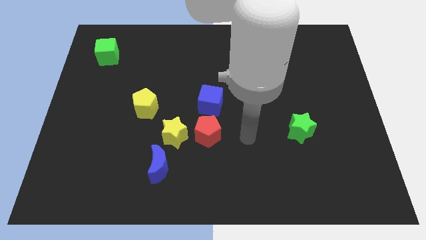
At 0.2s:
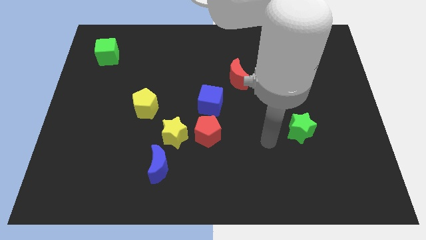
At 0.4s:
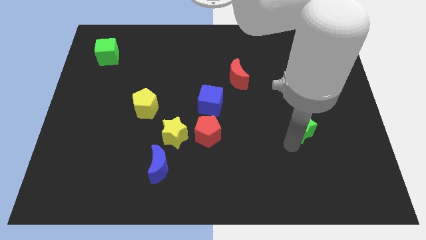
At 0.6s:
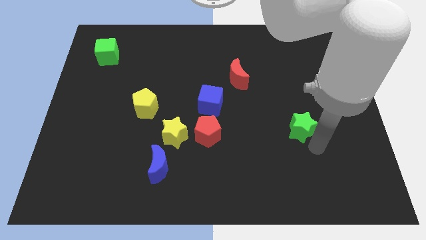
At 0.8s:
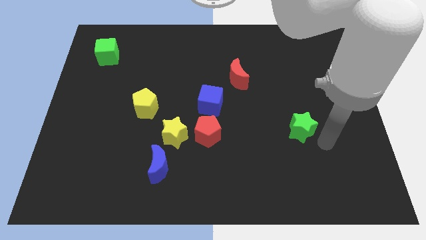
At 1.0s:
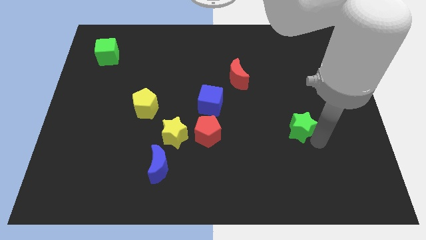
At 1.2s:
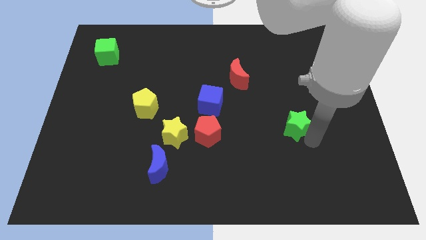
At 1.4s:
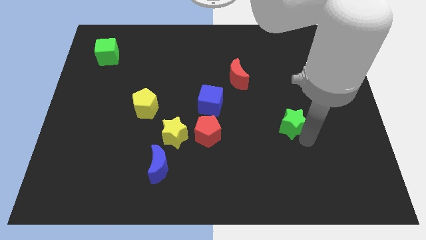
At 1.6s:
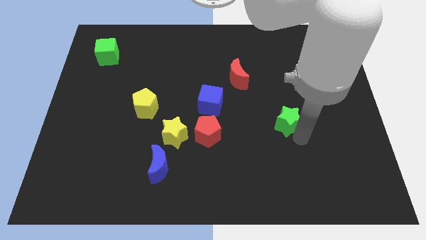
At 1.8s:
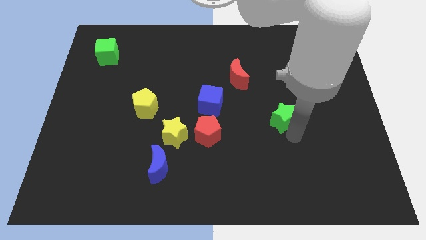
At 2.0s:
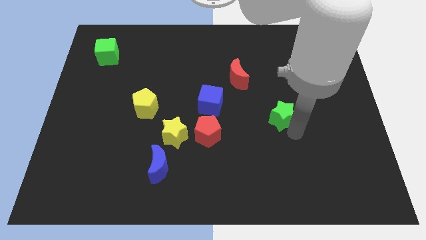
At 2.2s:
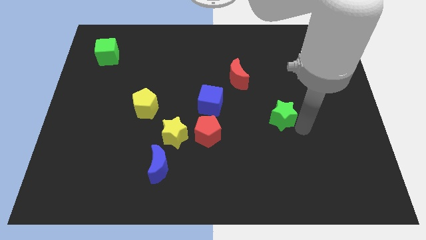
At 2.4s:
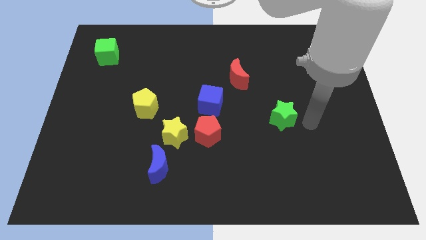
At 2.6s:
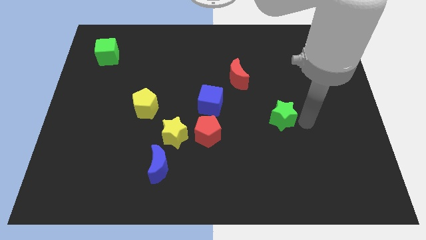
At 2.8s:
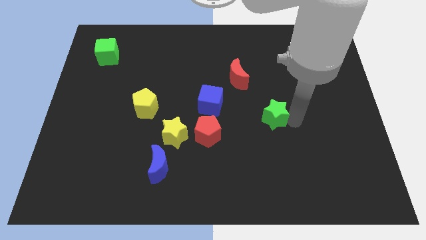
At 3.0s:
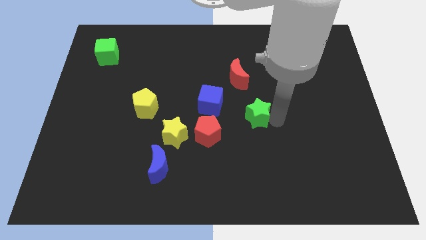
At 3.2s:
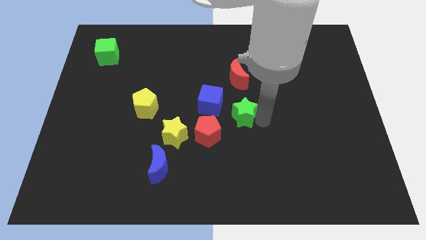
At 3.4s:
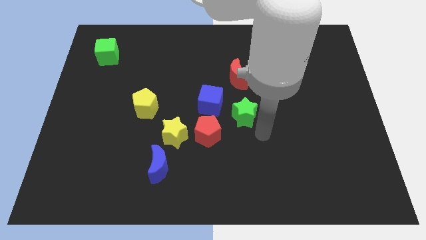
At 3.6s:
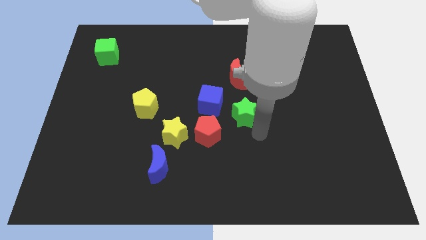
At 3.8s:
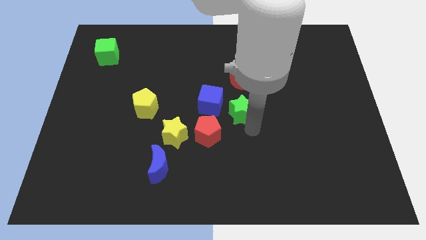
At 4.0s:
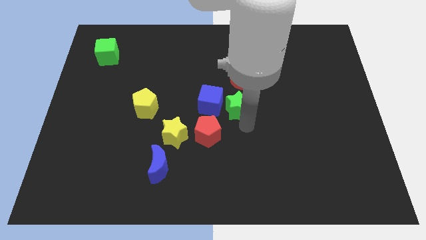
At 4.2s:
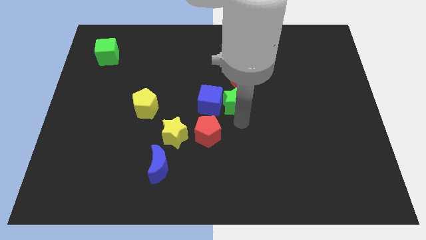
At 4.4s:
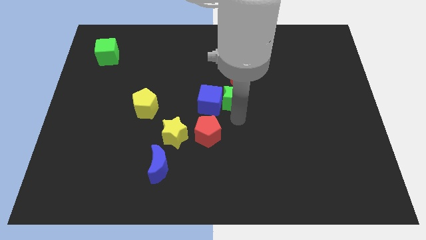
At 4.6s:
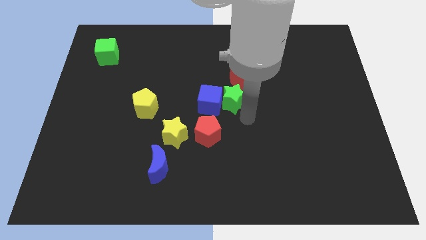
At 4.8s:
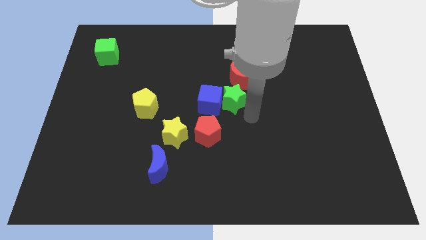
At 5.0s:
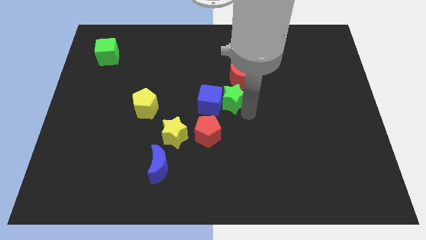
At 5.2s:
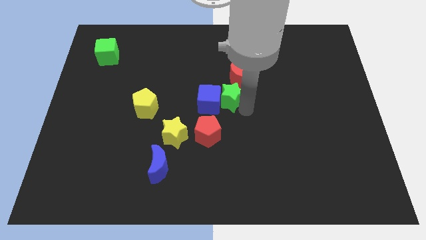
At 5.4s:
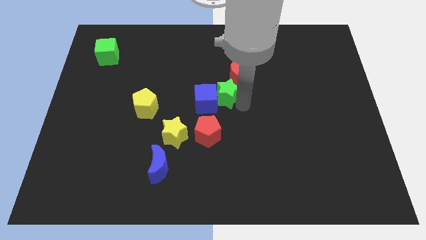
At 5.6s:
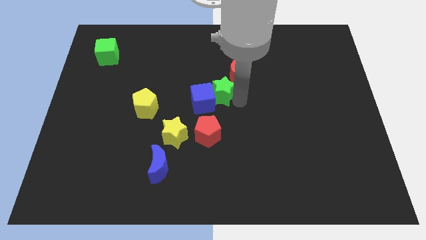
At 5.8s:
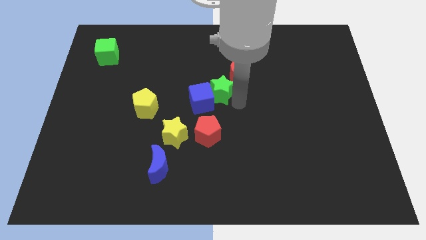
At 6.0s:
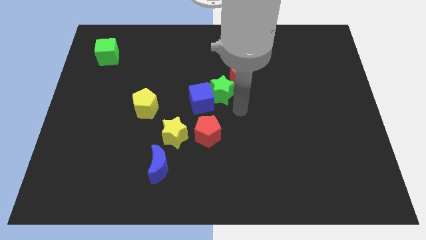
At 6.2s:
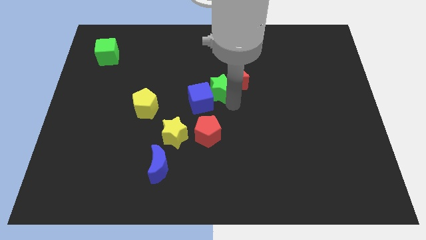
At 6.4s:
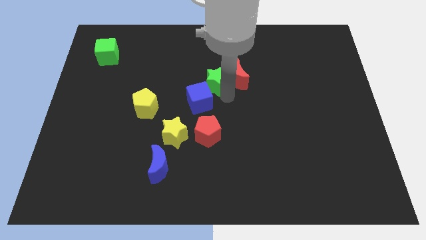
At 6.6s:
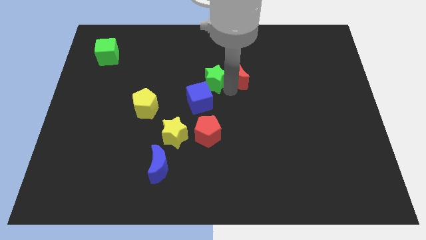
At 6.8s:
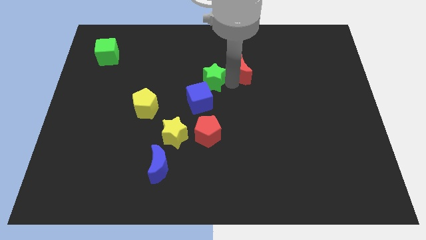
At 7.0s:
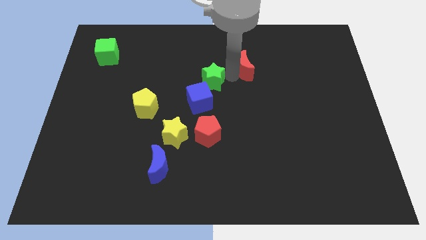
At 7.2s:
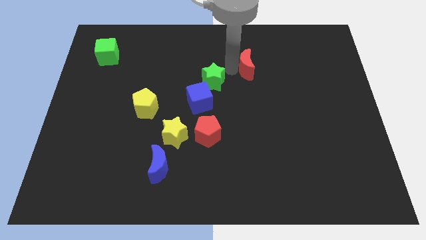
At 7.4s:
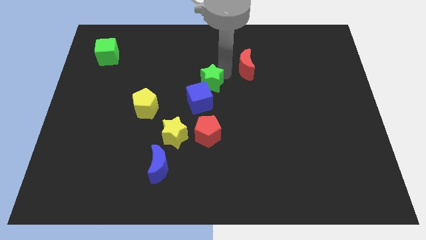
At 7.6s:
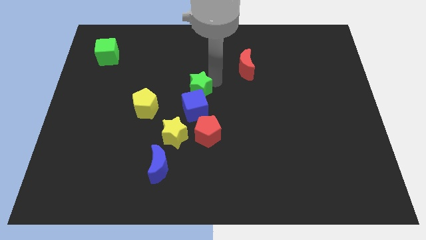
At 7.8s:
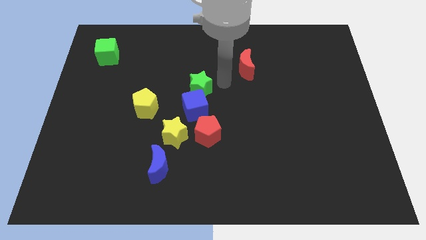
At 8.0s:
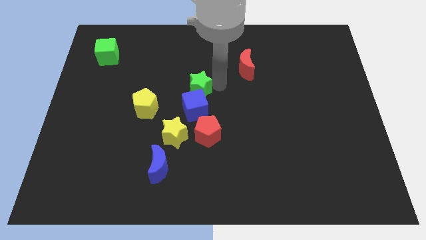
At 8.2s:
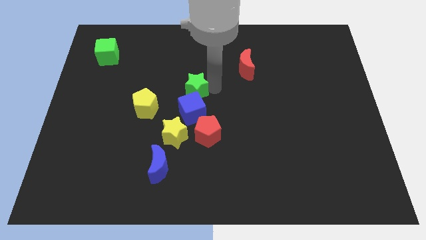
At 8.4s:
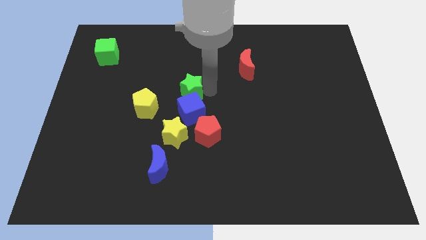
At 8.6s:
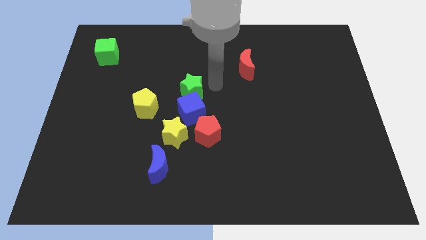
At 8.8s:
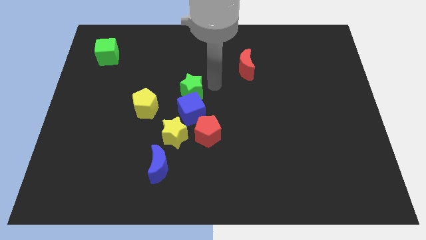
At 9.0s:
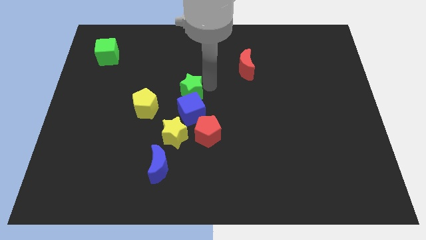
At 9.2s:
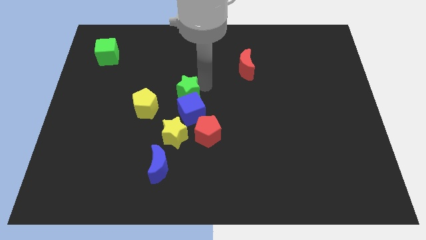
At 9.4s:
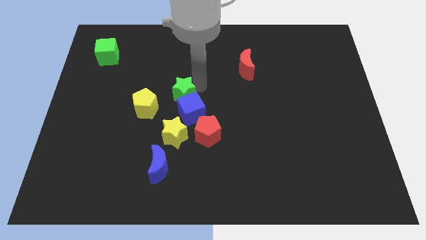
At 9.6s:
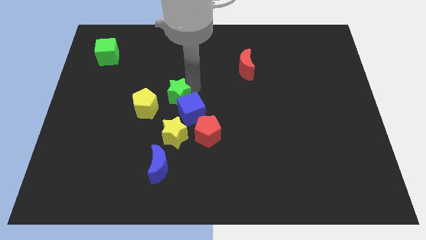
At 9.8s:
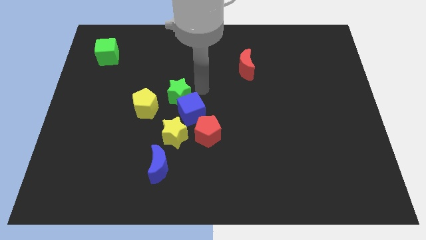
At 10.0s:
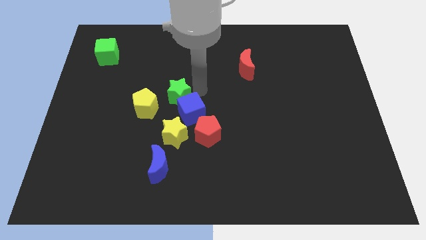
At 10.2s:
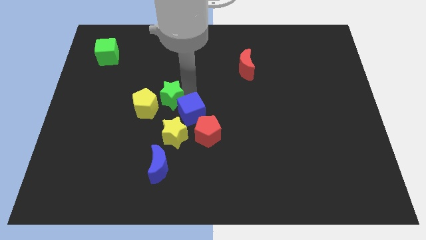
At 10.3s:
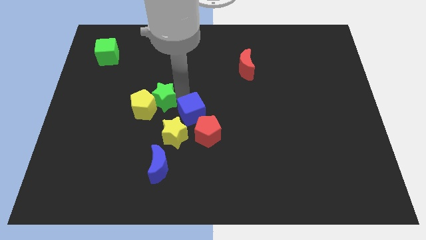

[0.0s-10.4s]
move the green star towards the yellow pentagon

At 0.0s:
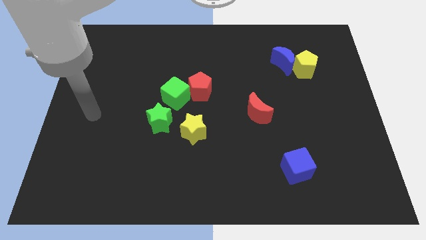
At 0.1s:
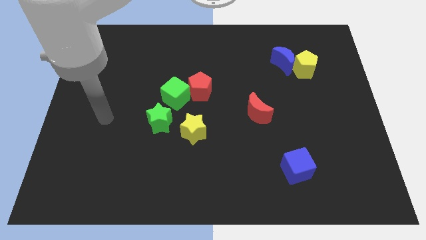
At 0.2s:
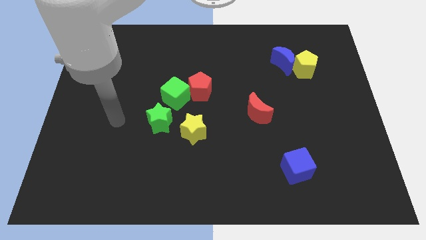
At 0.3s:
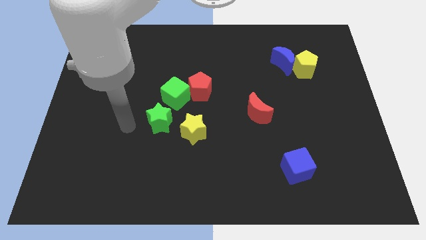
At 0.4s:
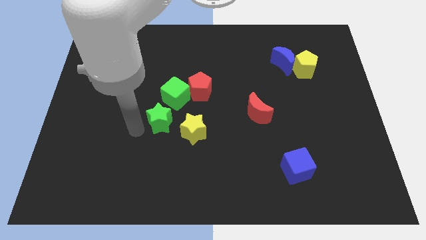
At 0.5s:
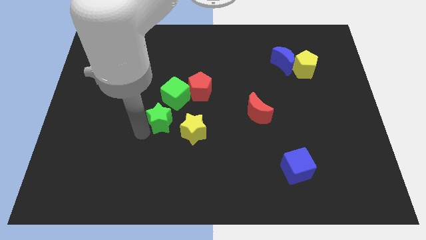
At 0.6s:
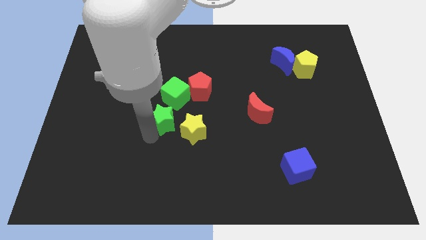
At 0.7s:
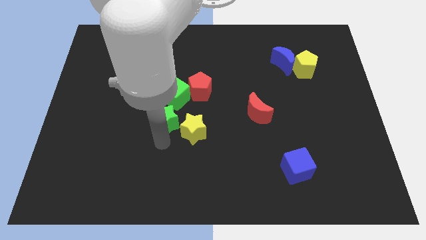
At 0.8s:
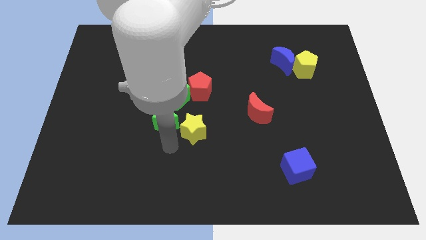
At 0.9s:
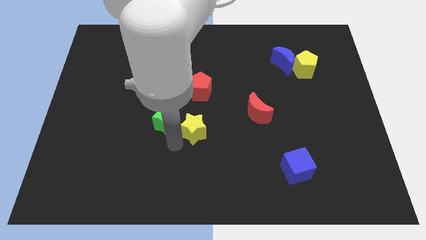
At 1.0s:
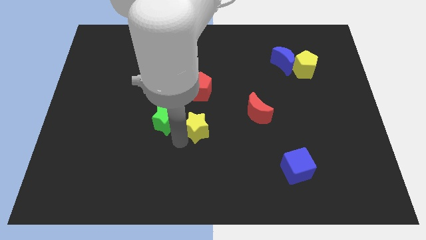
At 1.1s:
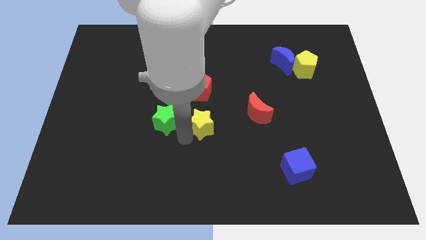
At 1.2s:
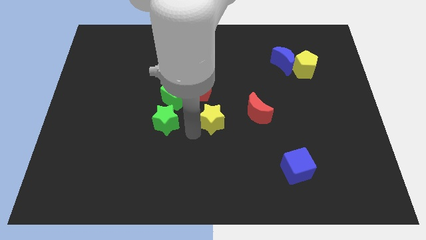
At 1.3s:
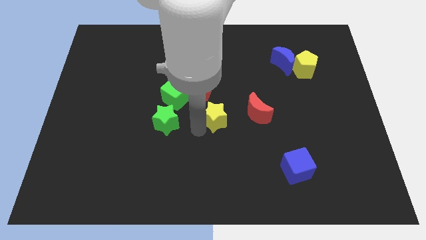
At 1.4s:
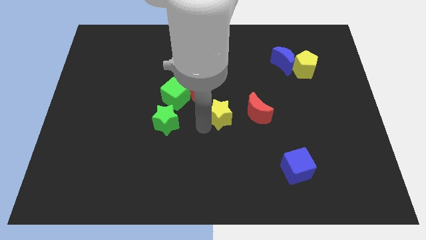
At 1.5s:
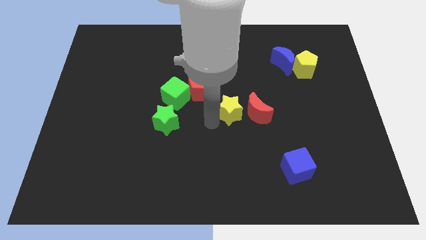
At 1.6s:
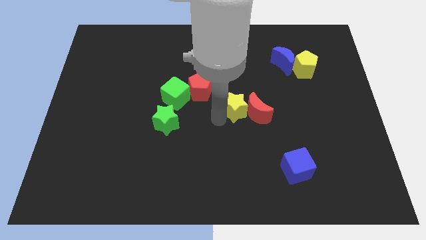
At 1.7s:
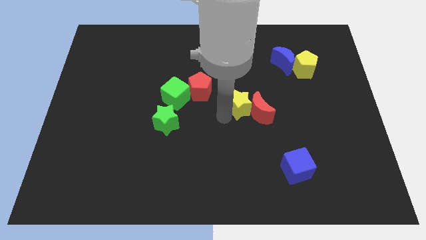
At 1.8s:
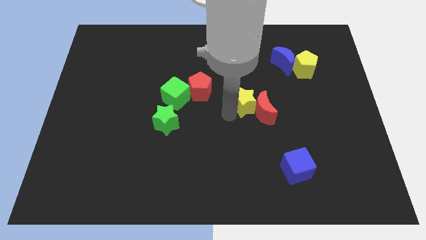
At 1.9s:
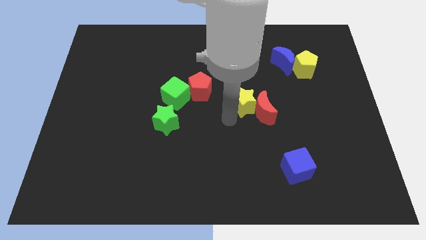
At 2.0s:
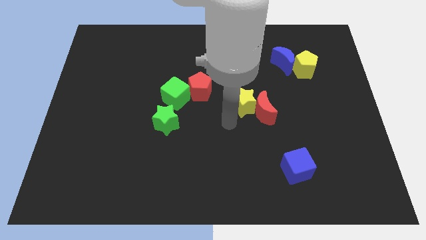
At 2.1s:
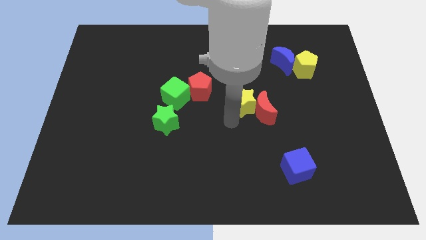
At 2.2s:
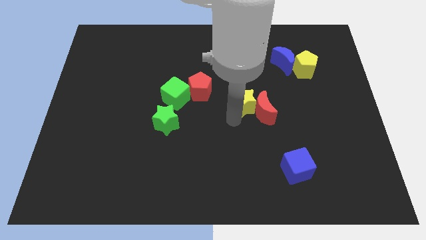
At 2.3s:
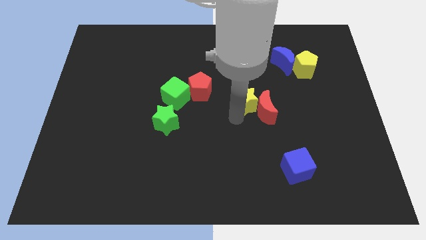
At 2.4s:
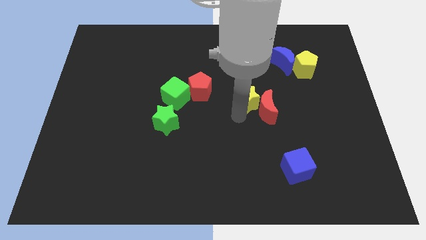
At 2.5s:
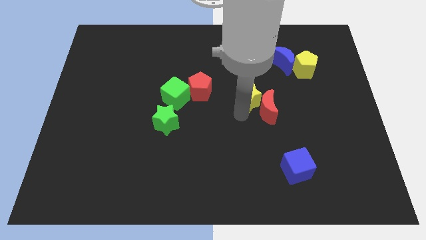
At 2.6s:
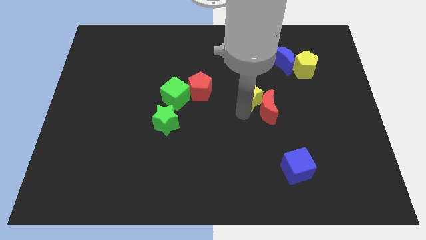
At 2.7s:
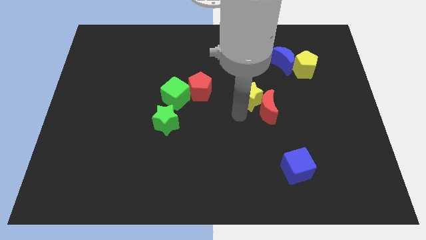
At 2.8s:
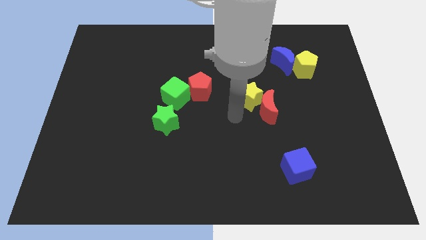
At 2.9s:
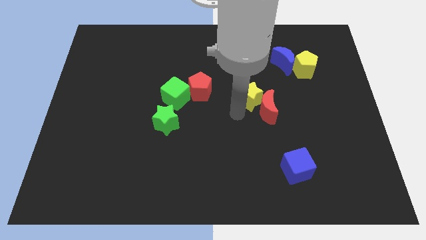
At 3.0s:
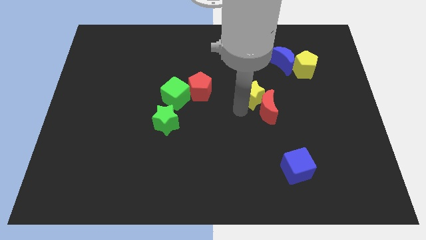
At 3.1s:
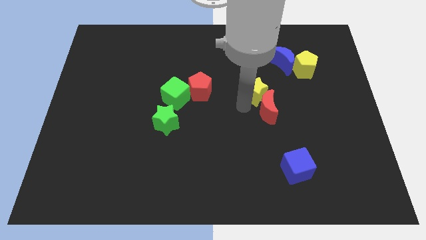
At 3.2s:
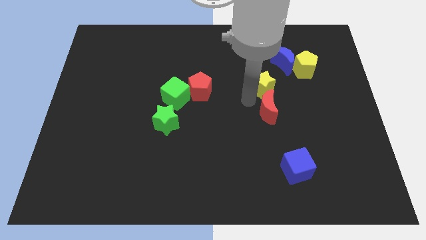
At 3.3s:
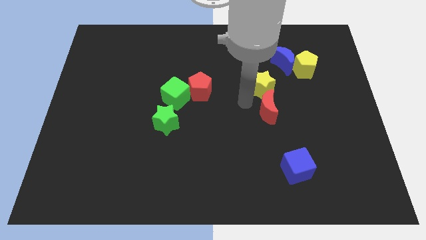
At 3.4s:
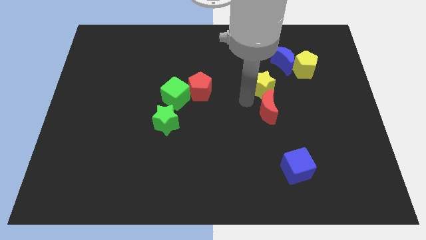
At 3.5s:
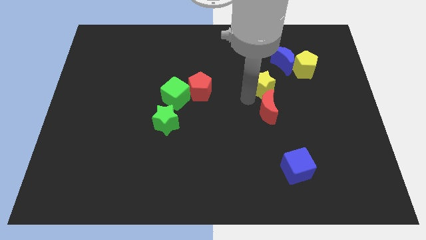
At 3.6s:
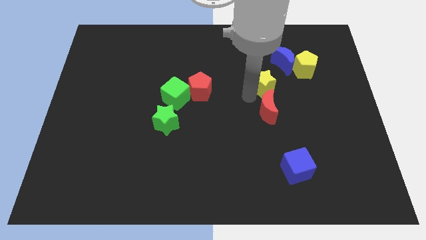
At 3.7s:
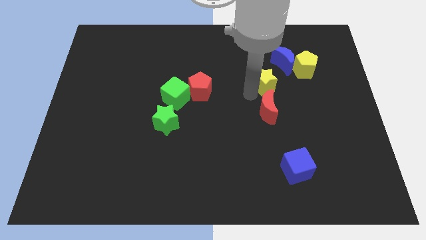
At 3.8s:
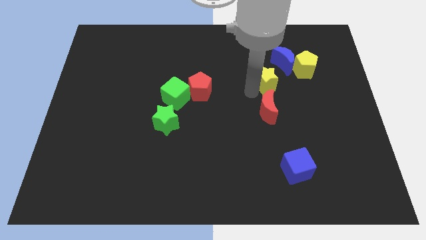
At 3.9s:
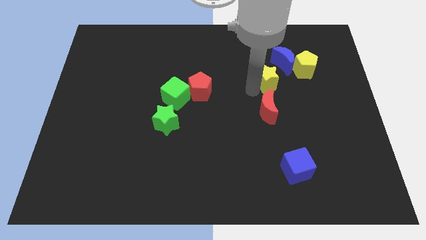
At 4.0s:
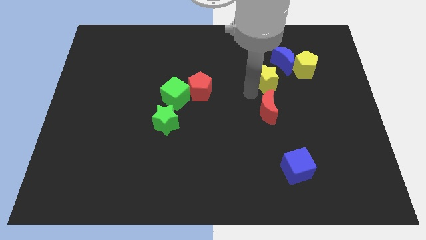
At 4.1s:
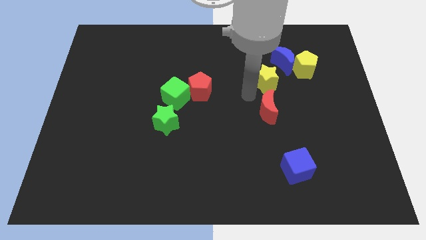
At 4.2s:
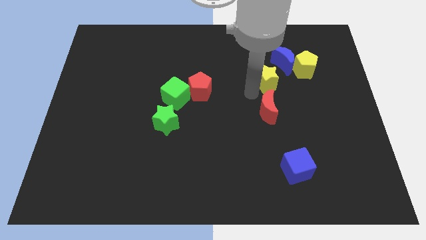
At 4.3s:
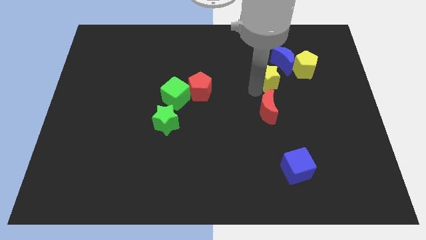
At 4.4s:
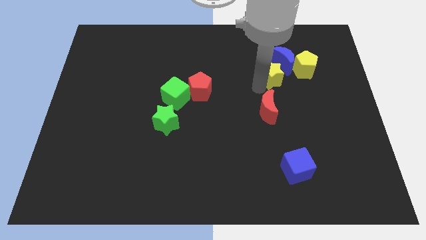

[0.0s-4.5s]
put the yellow star next to the blue moon
